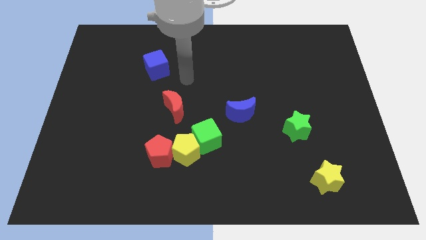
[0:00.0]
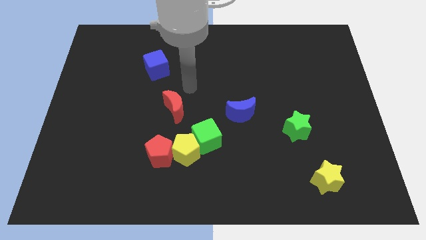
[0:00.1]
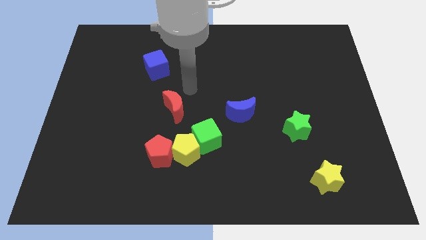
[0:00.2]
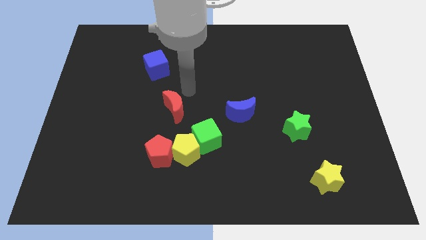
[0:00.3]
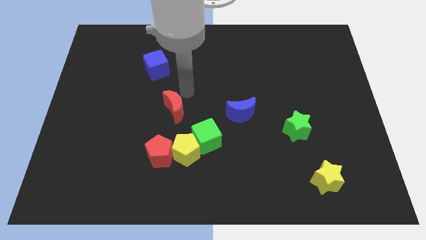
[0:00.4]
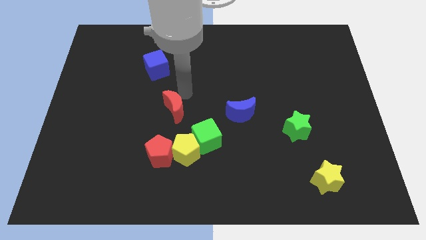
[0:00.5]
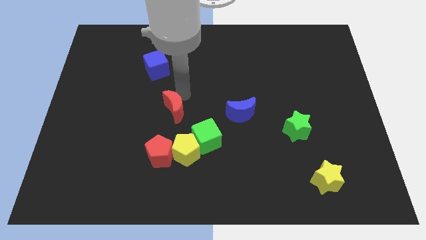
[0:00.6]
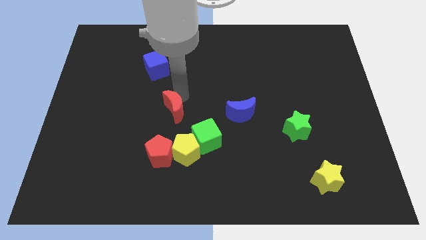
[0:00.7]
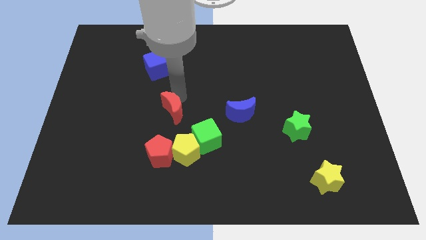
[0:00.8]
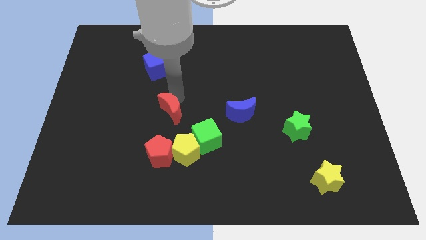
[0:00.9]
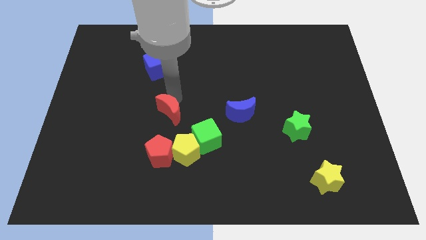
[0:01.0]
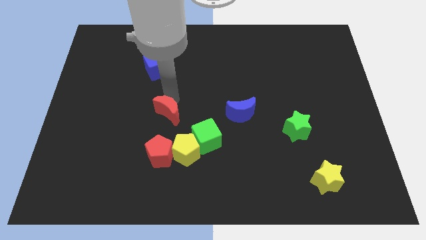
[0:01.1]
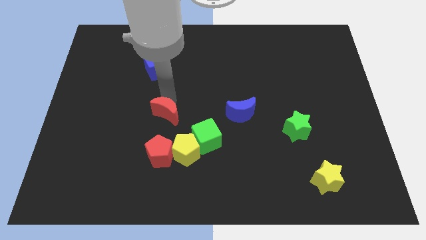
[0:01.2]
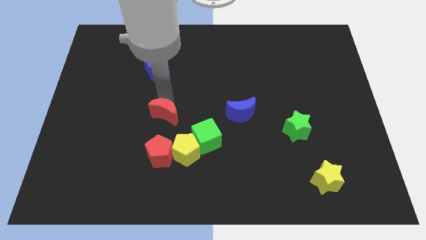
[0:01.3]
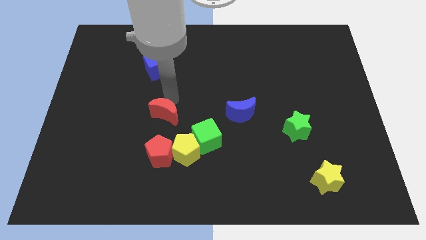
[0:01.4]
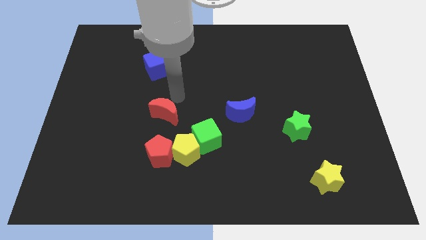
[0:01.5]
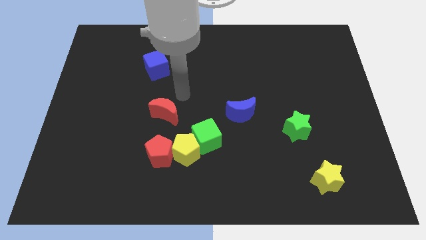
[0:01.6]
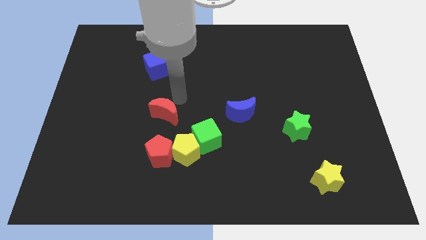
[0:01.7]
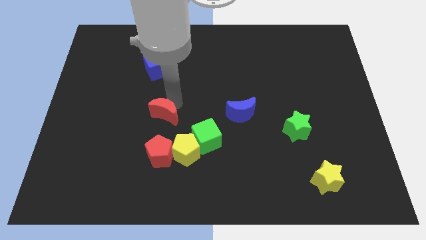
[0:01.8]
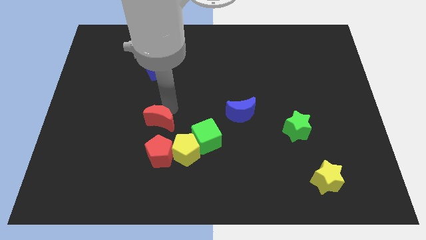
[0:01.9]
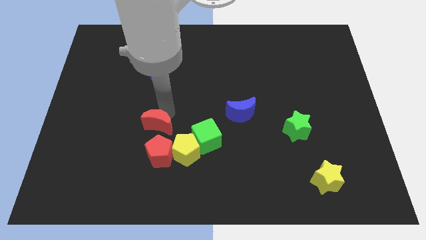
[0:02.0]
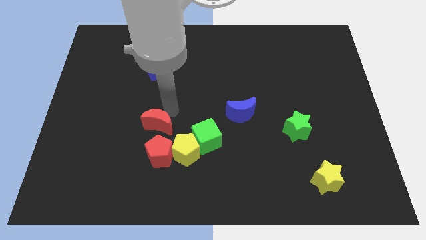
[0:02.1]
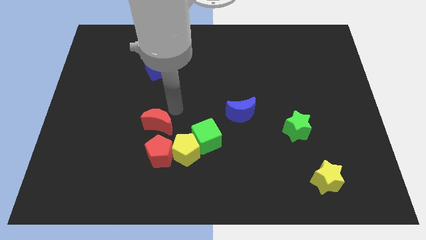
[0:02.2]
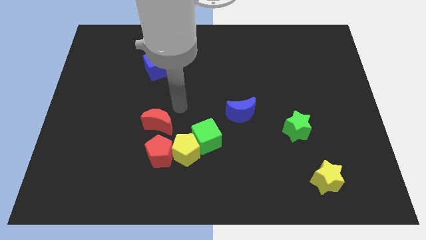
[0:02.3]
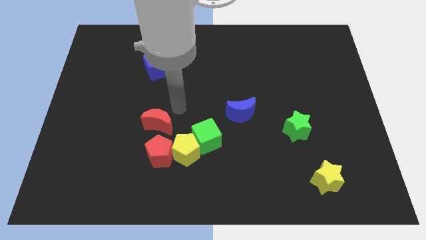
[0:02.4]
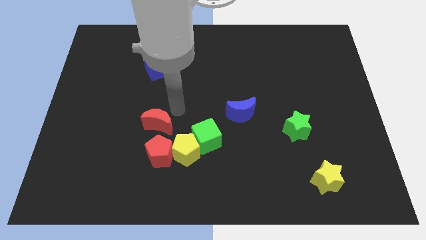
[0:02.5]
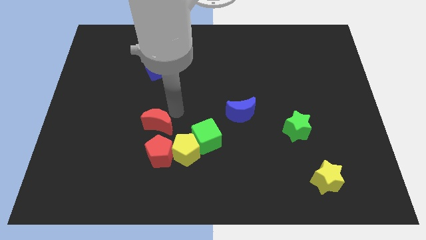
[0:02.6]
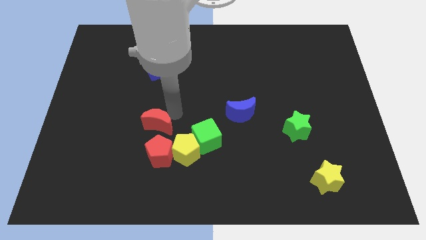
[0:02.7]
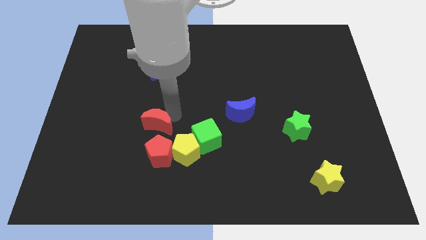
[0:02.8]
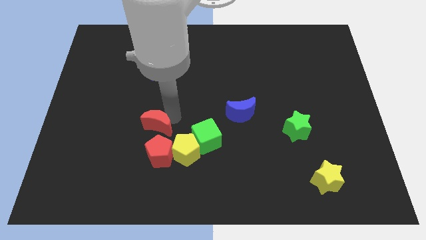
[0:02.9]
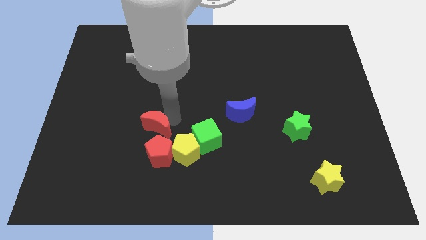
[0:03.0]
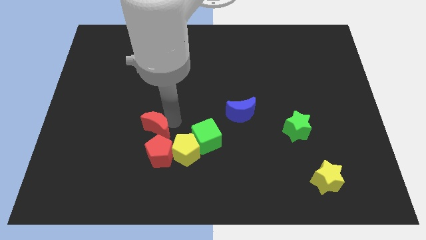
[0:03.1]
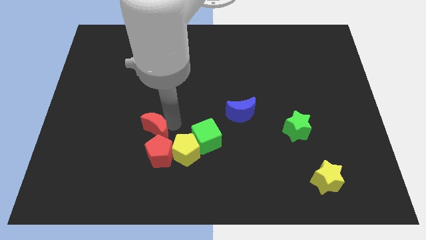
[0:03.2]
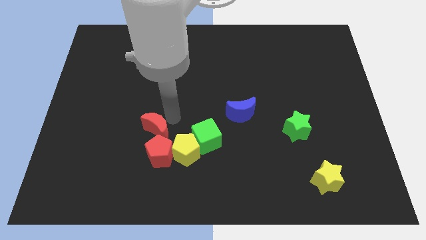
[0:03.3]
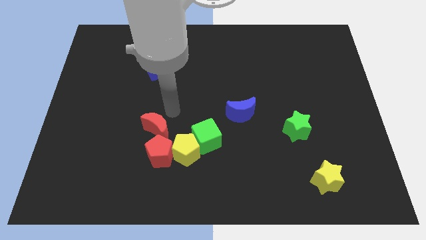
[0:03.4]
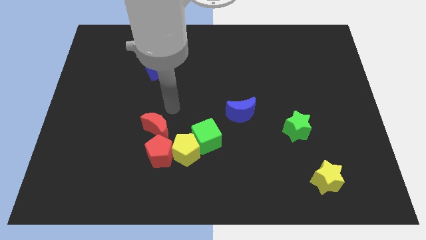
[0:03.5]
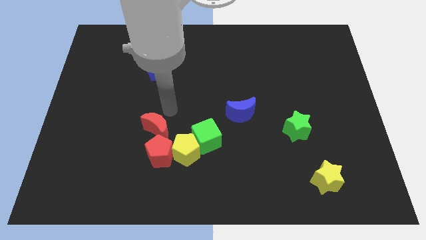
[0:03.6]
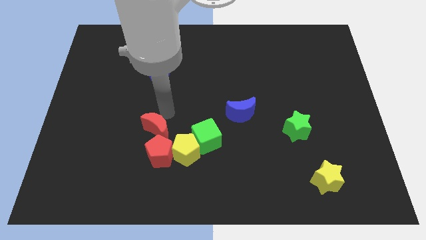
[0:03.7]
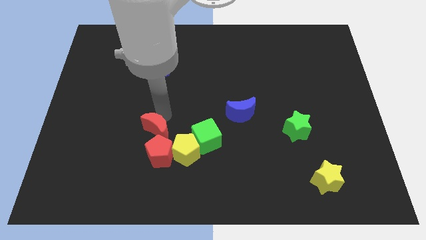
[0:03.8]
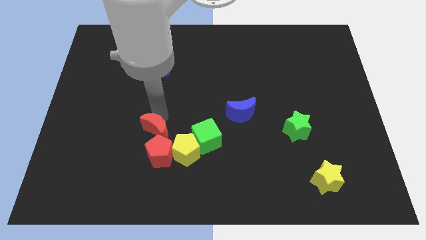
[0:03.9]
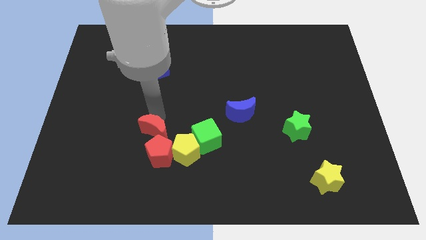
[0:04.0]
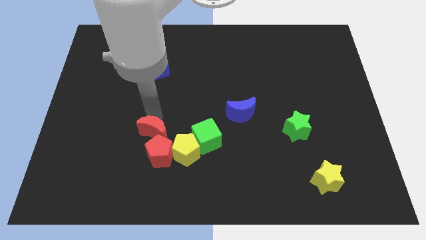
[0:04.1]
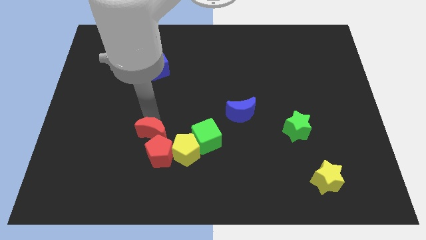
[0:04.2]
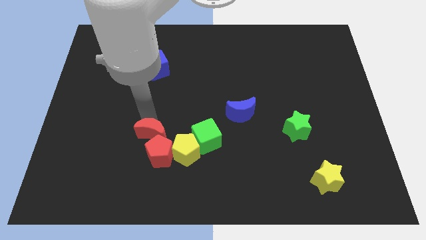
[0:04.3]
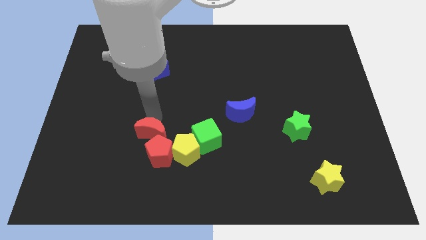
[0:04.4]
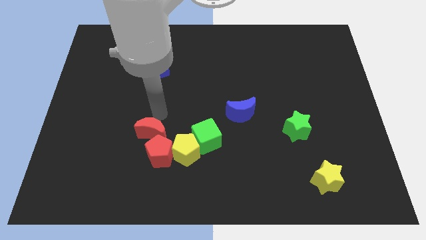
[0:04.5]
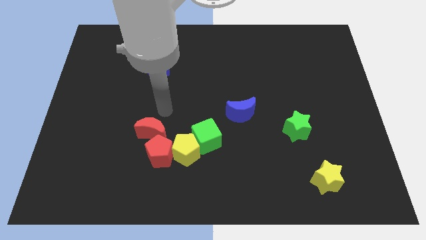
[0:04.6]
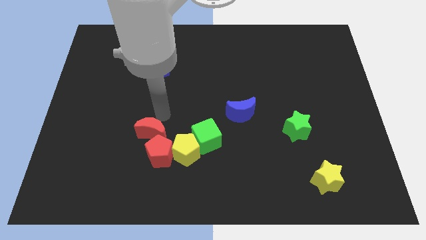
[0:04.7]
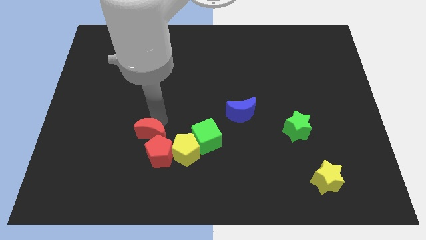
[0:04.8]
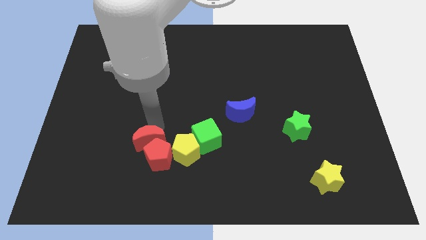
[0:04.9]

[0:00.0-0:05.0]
slightly move the red moon downwards

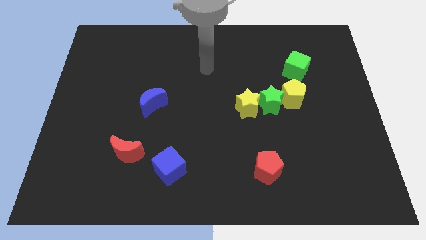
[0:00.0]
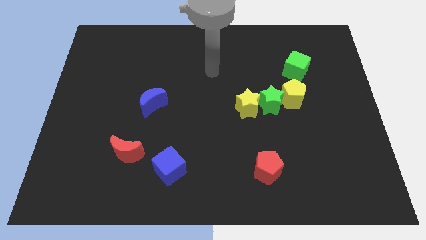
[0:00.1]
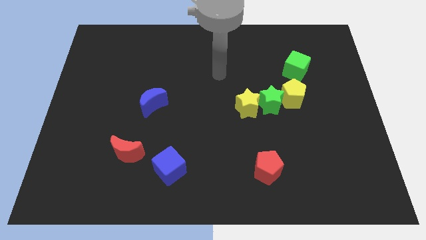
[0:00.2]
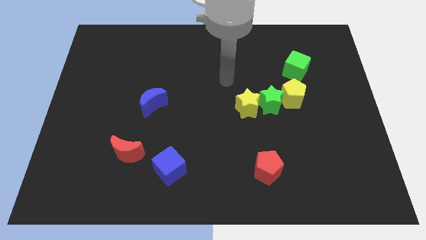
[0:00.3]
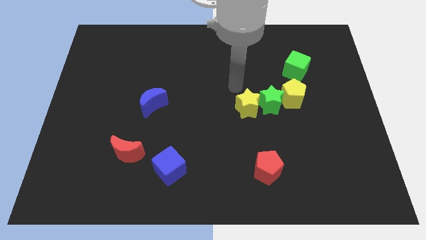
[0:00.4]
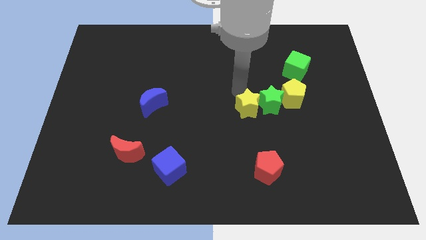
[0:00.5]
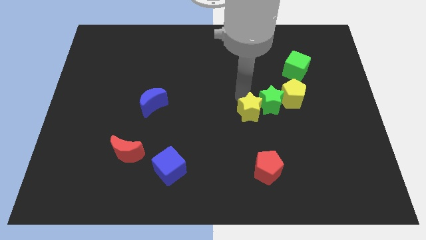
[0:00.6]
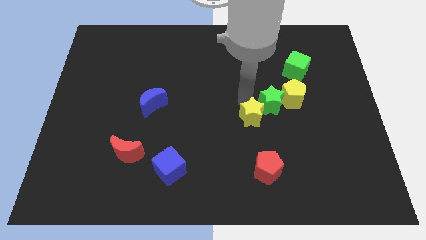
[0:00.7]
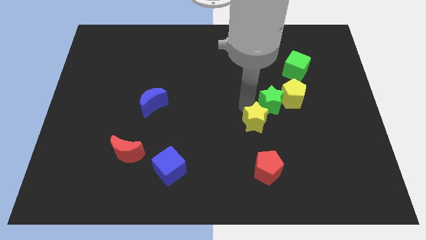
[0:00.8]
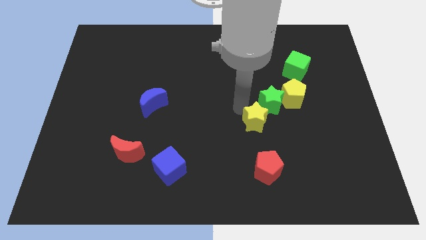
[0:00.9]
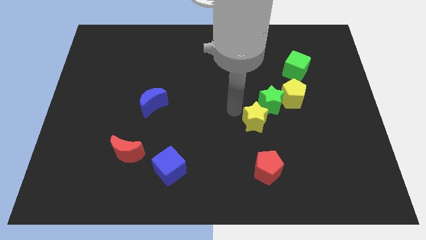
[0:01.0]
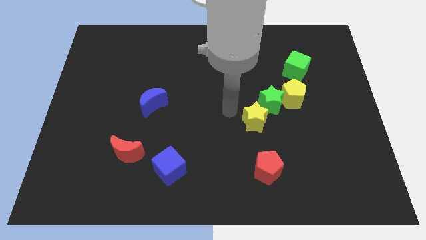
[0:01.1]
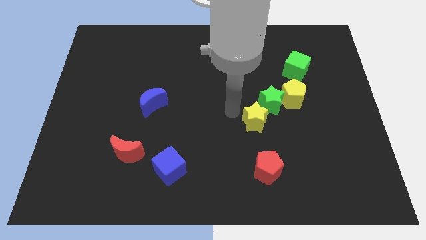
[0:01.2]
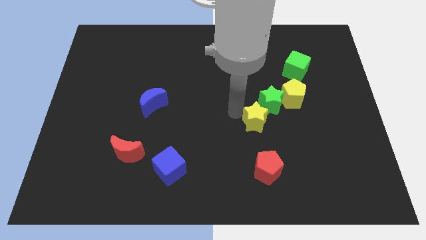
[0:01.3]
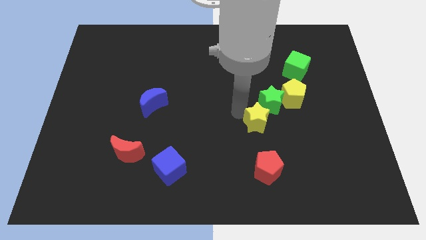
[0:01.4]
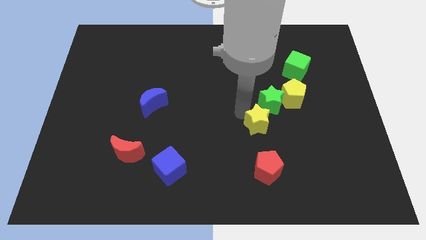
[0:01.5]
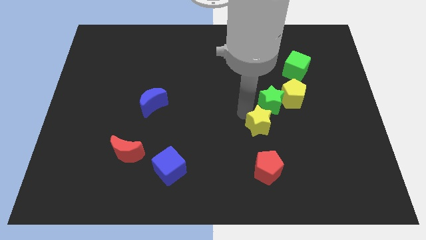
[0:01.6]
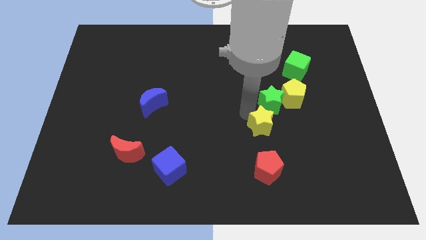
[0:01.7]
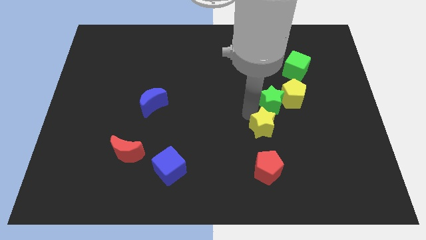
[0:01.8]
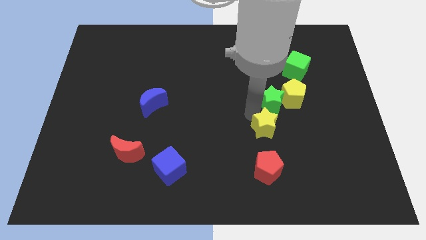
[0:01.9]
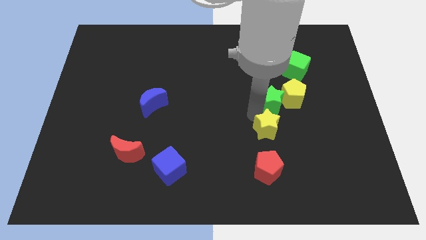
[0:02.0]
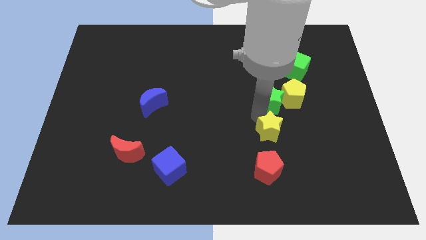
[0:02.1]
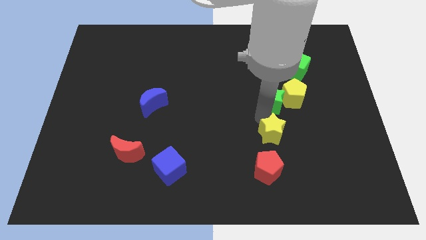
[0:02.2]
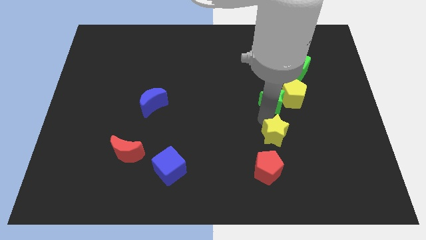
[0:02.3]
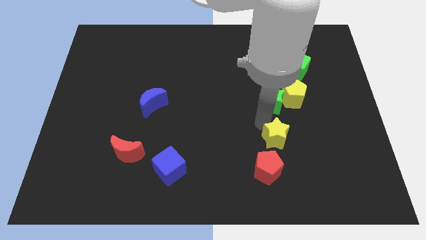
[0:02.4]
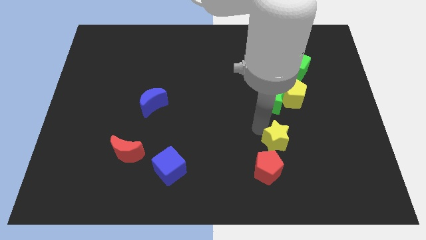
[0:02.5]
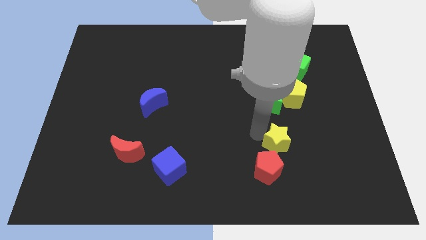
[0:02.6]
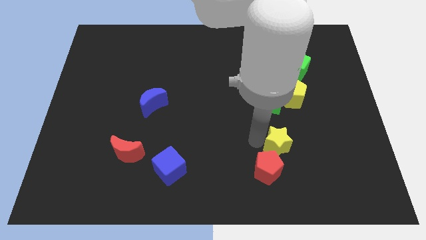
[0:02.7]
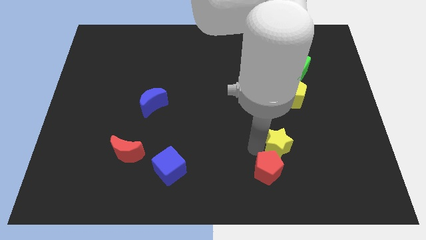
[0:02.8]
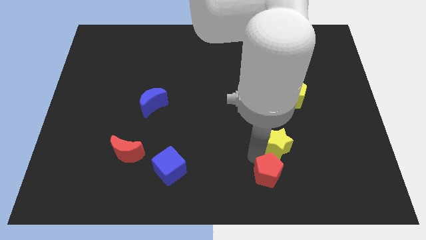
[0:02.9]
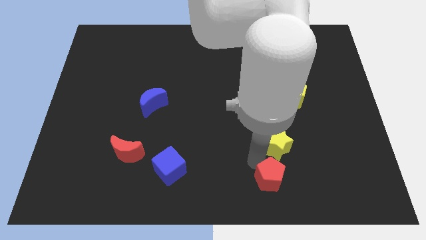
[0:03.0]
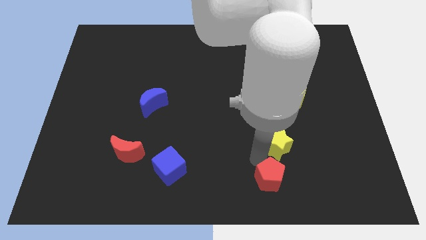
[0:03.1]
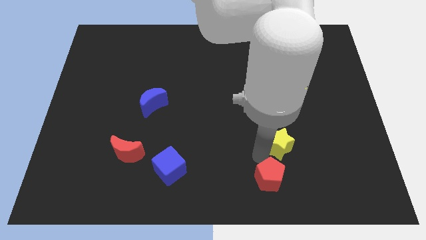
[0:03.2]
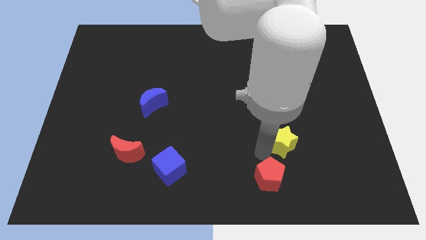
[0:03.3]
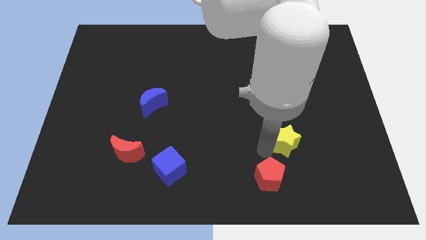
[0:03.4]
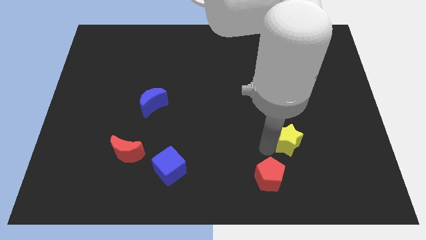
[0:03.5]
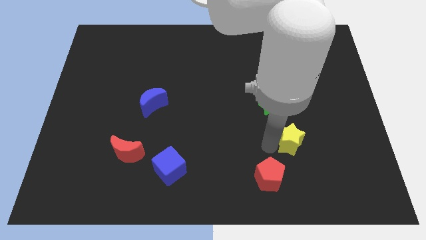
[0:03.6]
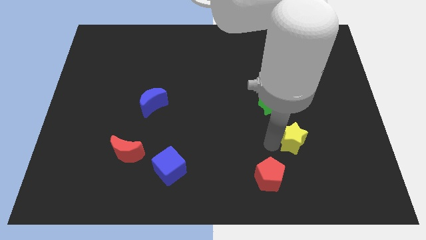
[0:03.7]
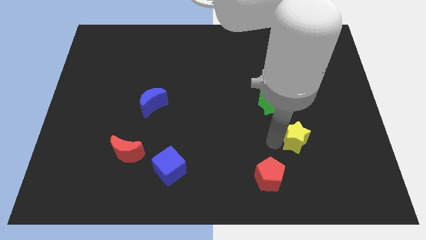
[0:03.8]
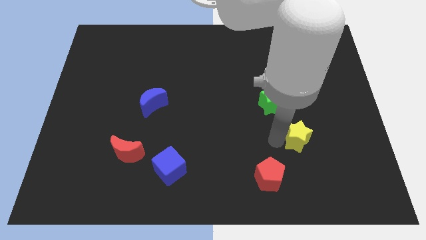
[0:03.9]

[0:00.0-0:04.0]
move the yellow star right a little bit
